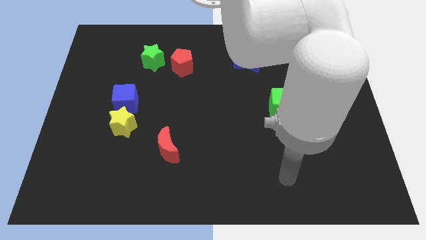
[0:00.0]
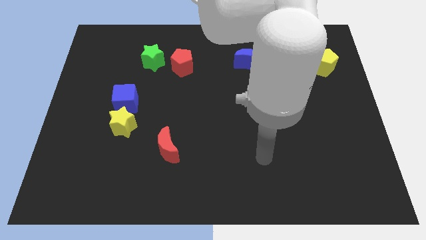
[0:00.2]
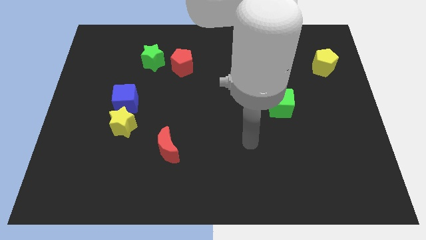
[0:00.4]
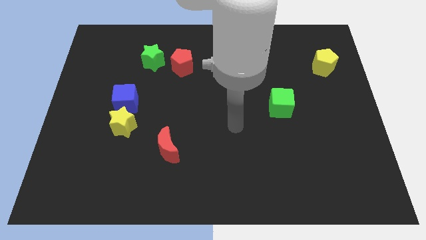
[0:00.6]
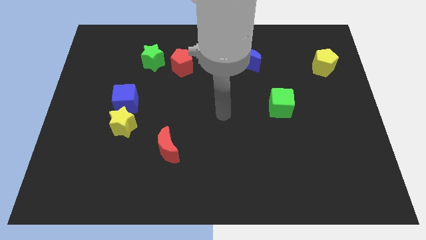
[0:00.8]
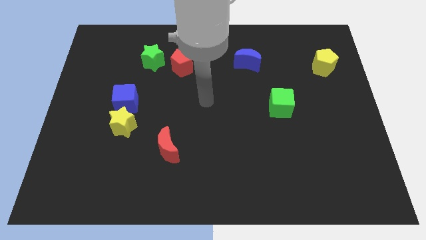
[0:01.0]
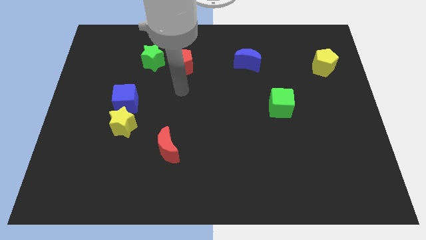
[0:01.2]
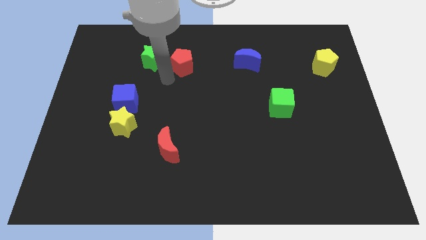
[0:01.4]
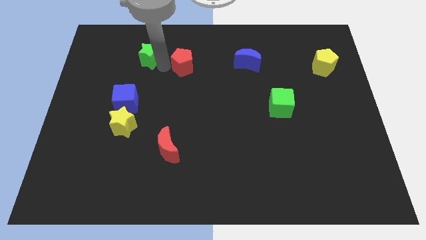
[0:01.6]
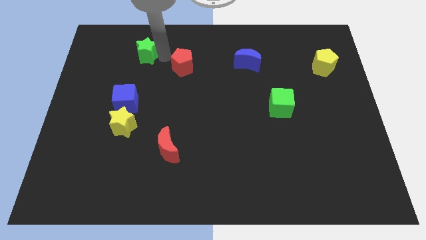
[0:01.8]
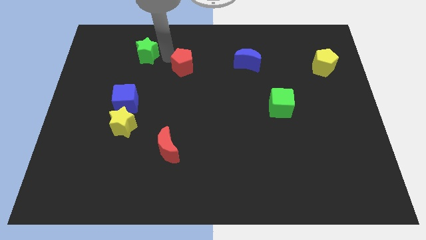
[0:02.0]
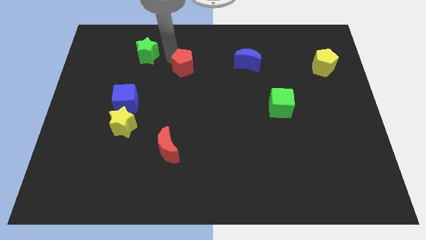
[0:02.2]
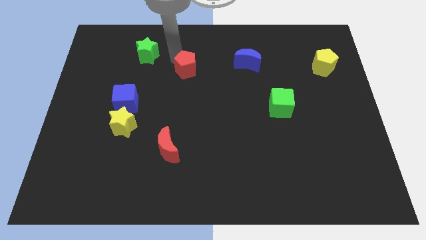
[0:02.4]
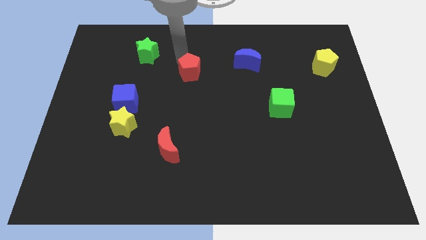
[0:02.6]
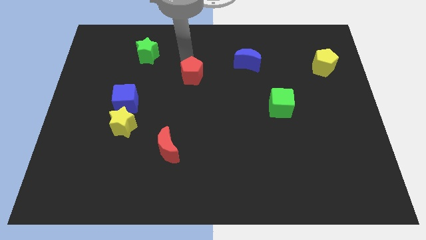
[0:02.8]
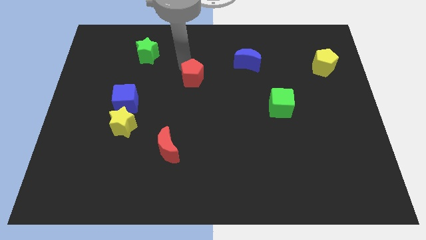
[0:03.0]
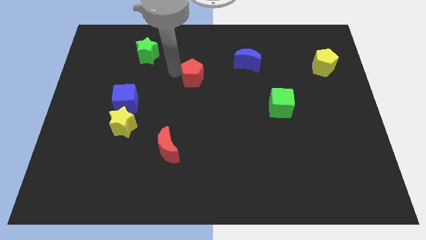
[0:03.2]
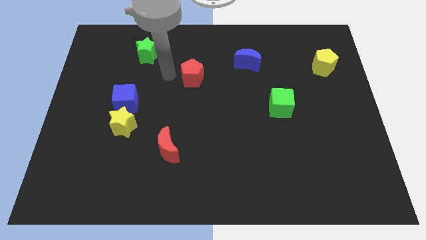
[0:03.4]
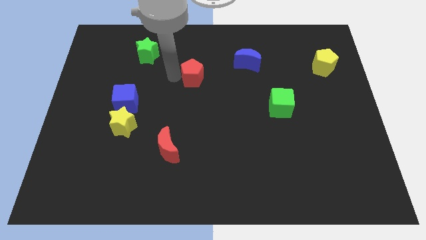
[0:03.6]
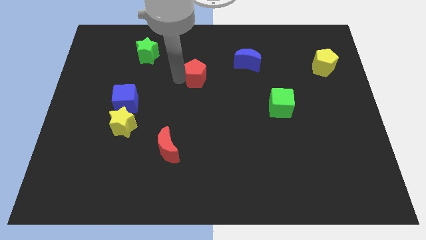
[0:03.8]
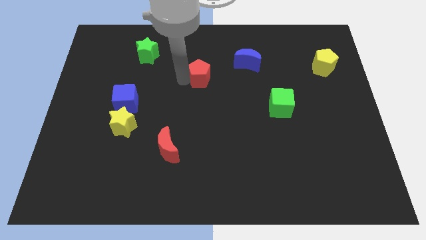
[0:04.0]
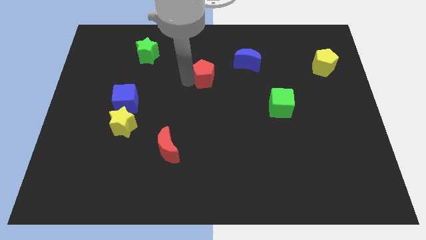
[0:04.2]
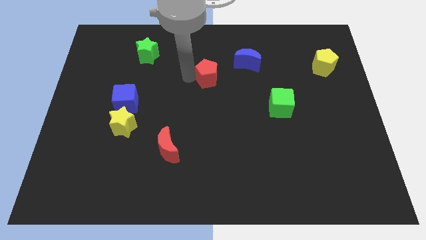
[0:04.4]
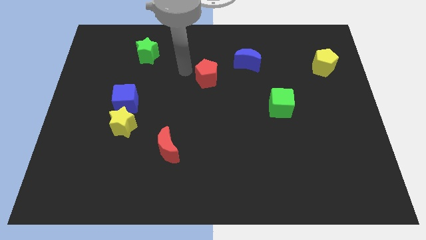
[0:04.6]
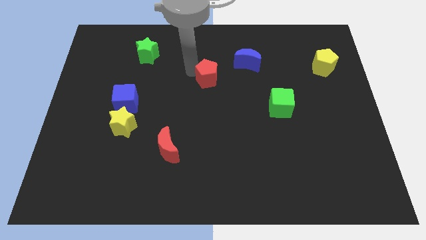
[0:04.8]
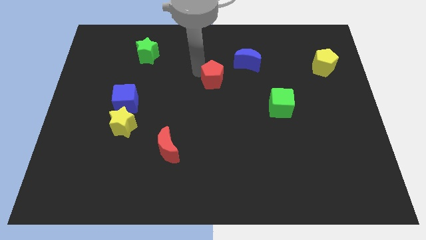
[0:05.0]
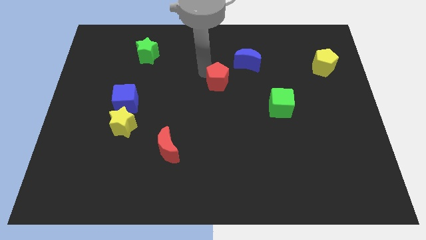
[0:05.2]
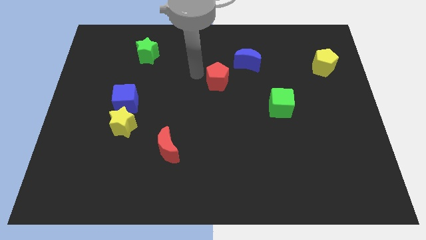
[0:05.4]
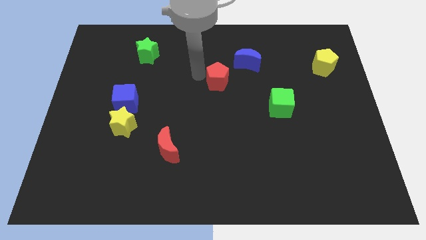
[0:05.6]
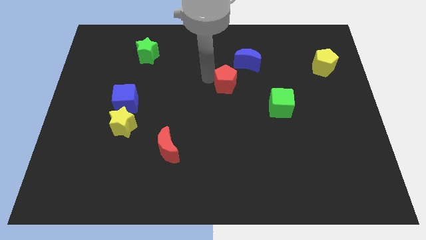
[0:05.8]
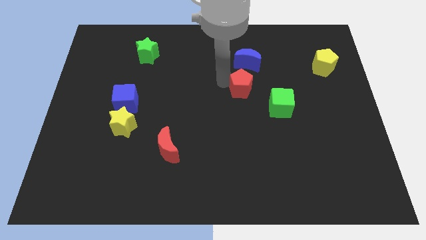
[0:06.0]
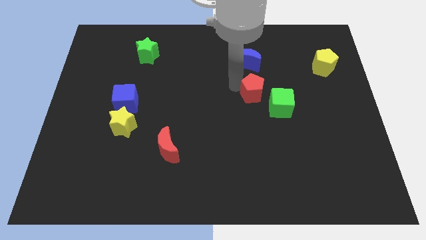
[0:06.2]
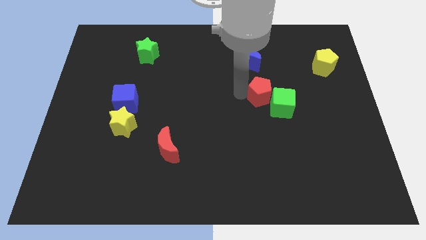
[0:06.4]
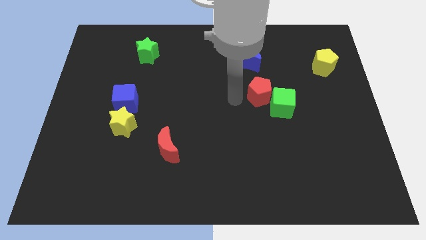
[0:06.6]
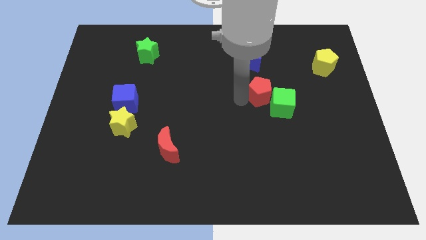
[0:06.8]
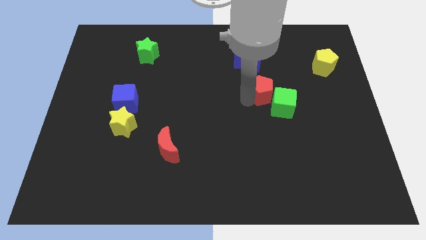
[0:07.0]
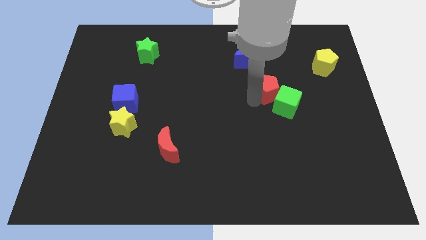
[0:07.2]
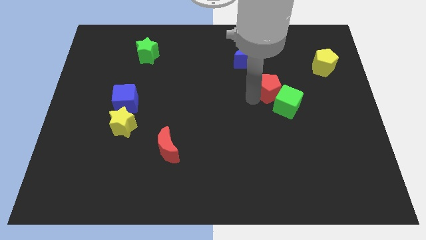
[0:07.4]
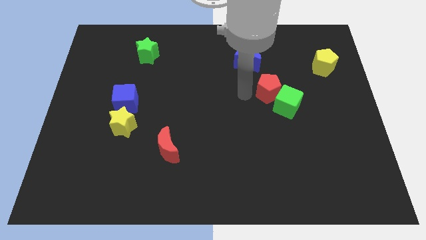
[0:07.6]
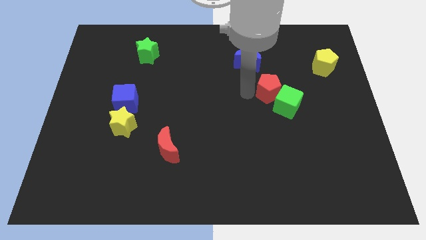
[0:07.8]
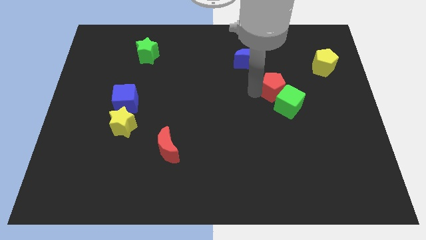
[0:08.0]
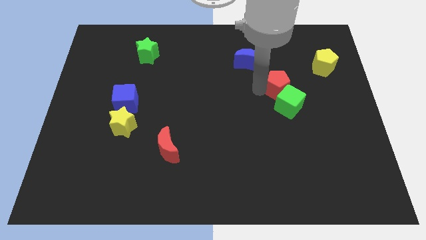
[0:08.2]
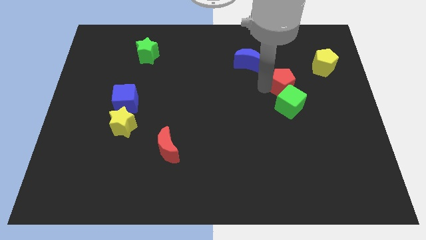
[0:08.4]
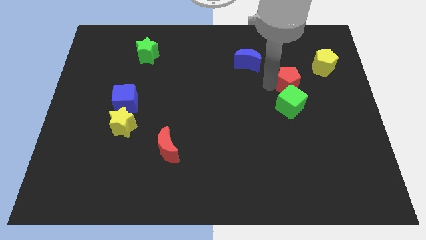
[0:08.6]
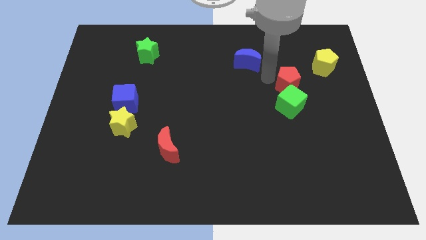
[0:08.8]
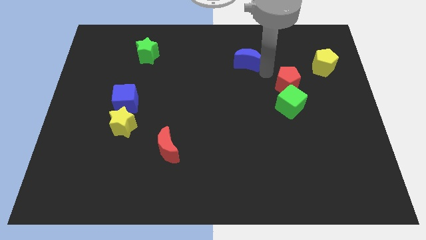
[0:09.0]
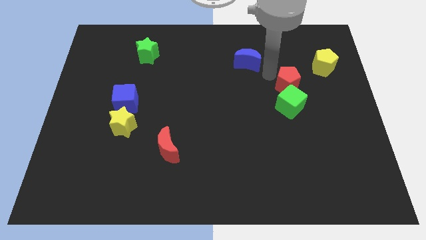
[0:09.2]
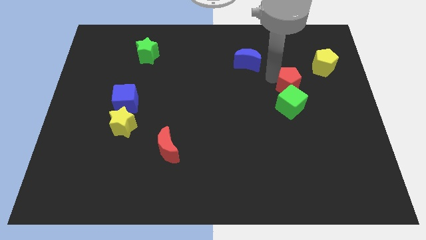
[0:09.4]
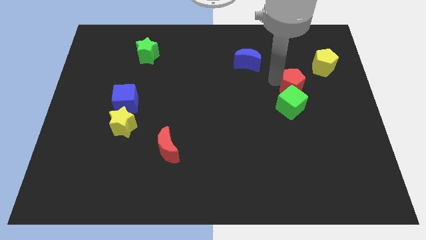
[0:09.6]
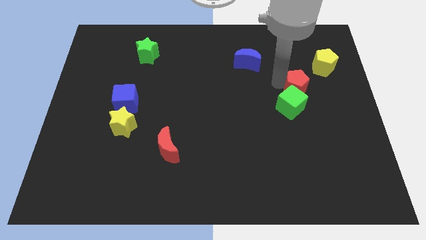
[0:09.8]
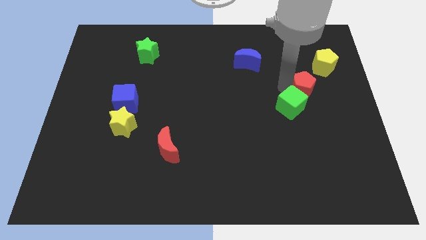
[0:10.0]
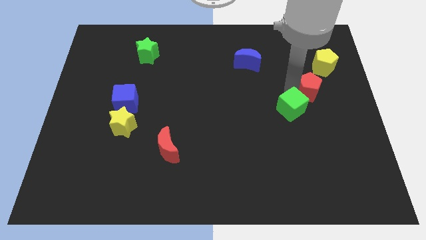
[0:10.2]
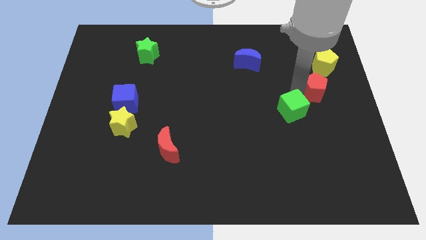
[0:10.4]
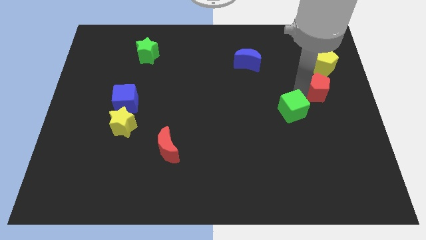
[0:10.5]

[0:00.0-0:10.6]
put the red pentagon to the center right

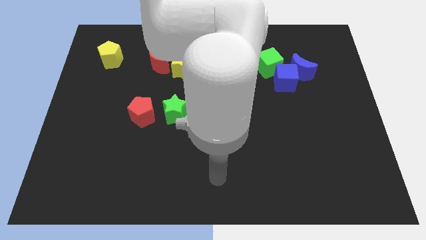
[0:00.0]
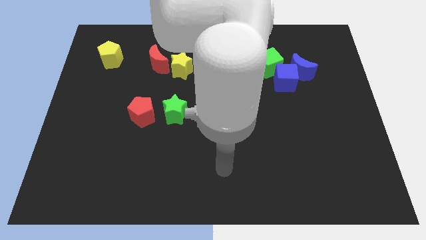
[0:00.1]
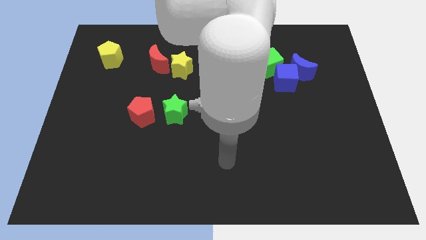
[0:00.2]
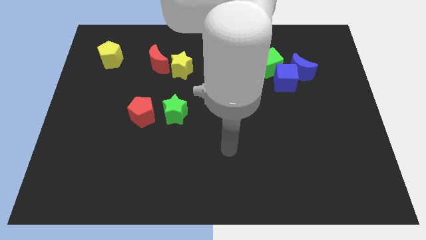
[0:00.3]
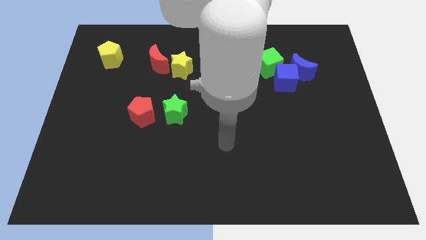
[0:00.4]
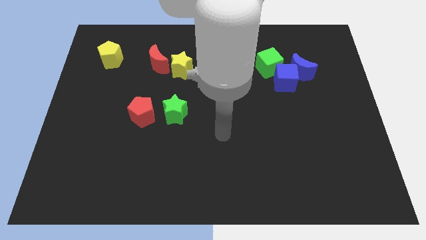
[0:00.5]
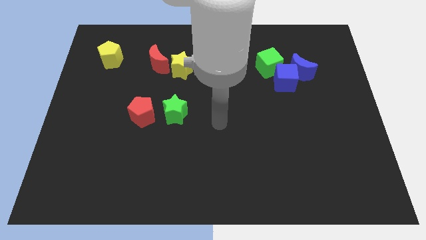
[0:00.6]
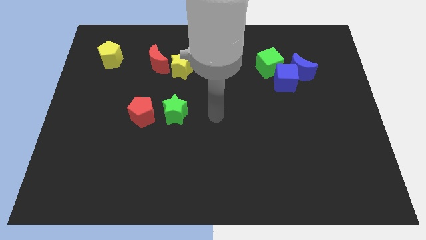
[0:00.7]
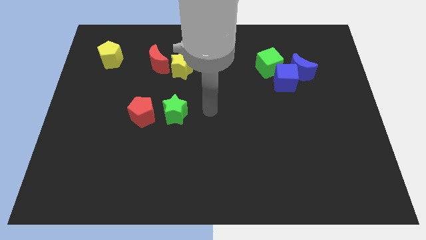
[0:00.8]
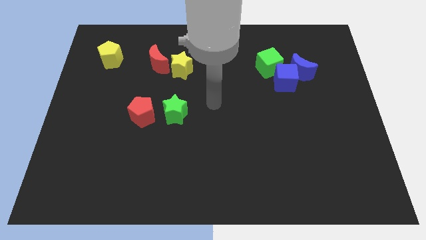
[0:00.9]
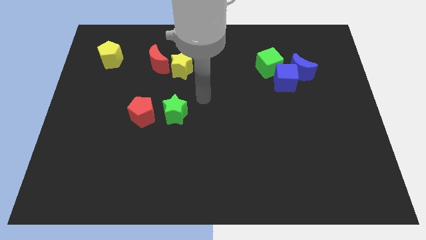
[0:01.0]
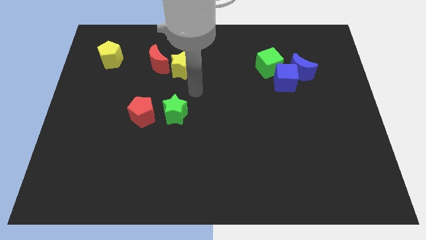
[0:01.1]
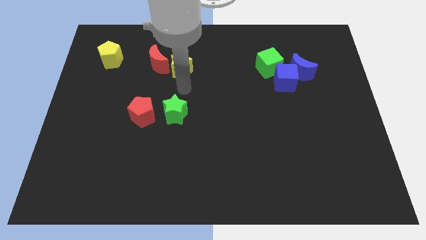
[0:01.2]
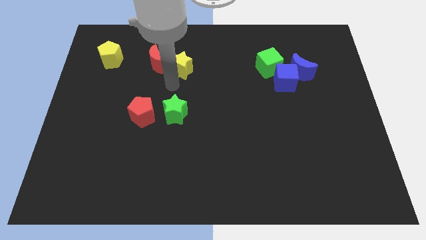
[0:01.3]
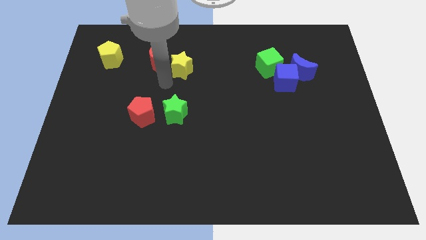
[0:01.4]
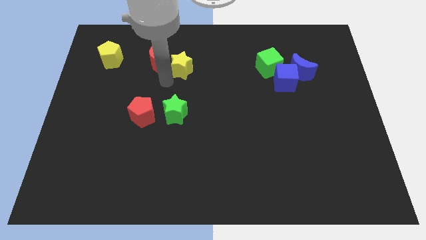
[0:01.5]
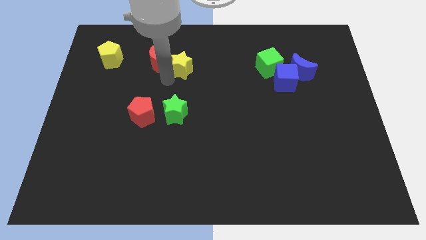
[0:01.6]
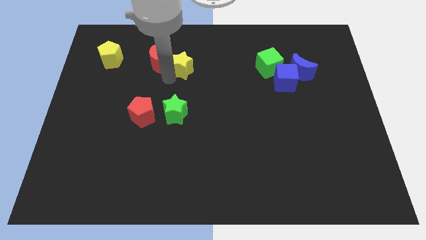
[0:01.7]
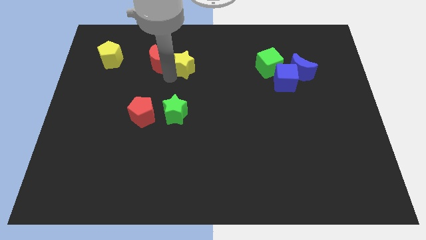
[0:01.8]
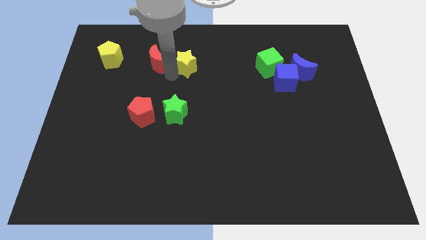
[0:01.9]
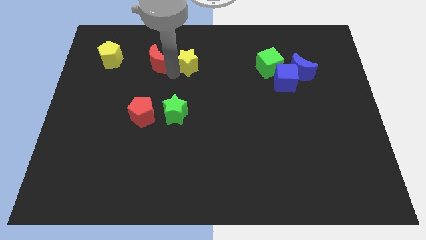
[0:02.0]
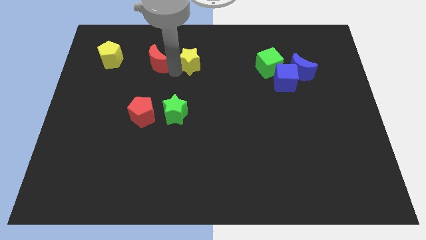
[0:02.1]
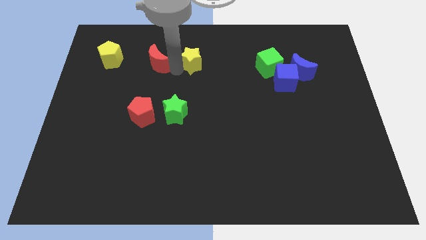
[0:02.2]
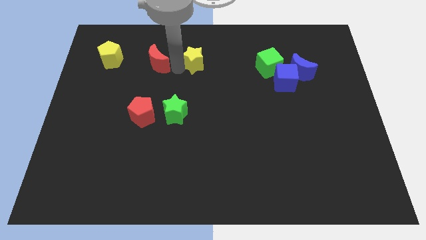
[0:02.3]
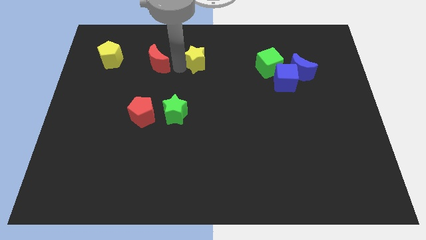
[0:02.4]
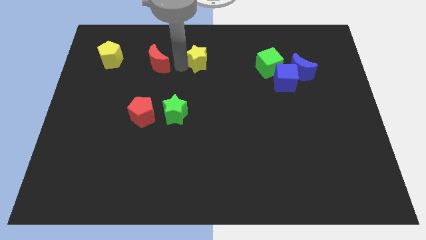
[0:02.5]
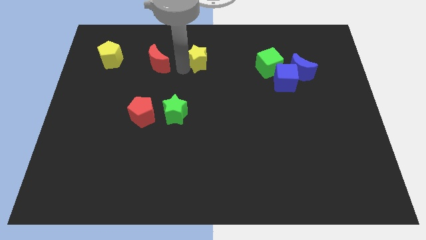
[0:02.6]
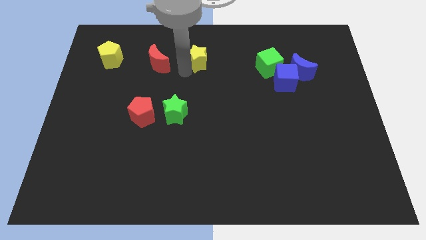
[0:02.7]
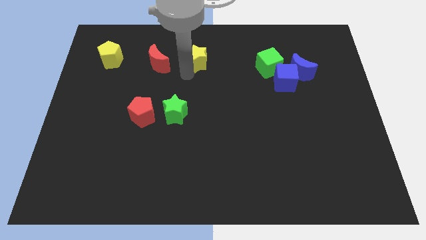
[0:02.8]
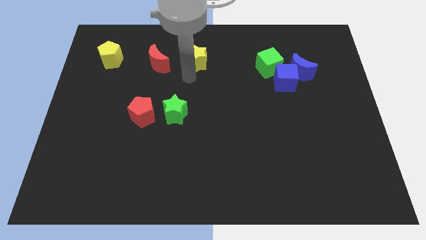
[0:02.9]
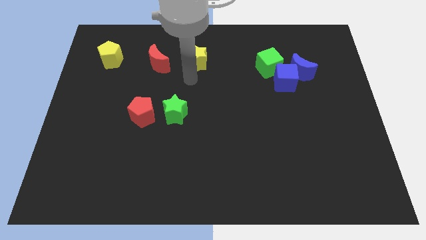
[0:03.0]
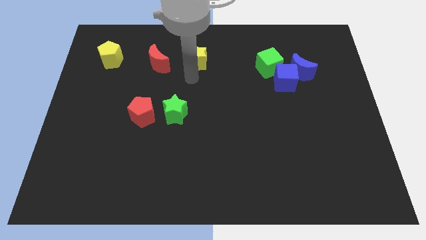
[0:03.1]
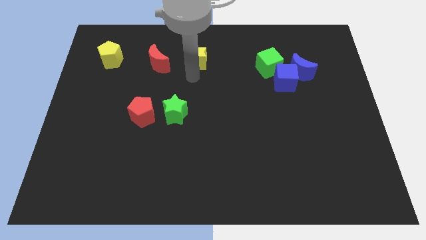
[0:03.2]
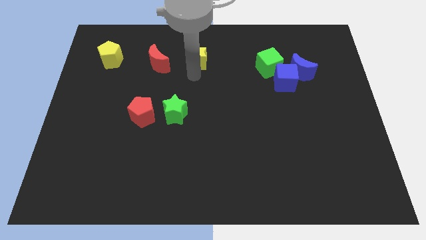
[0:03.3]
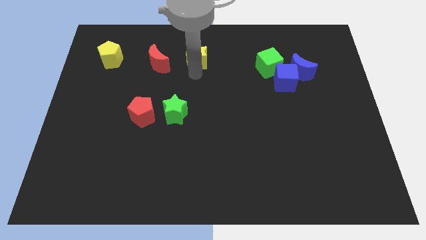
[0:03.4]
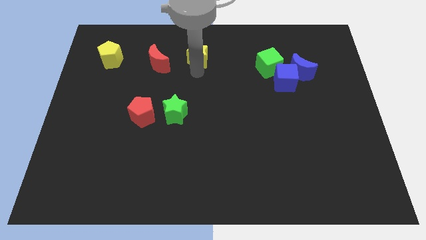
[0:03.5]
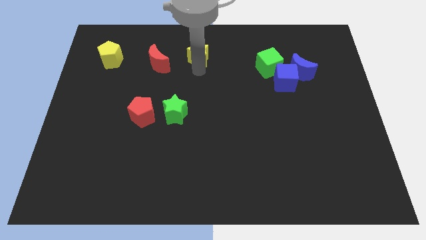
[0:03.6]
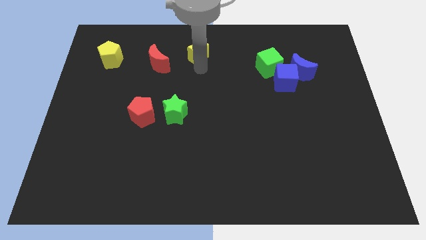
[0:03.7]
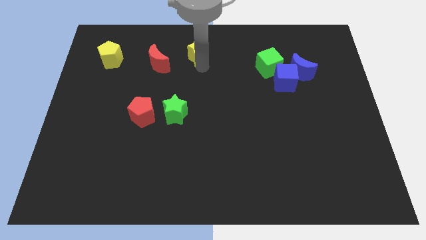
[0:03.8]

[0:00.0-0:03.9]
slide the yellow star to the towards your base
